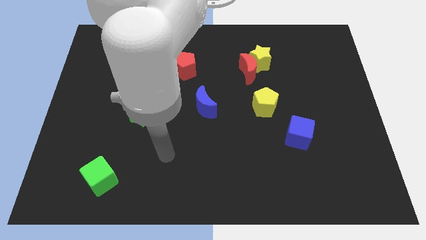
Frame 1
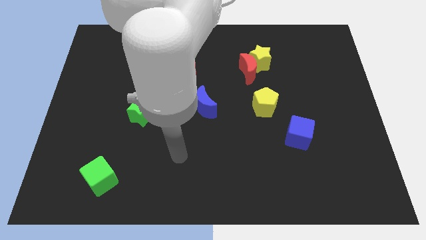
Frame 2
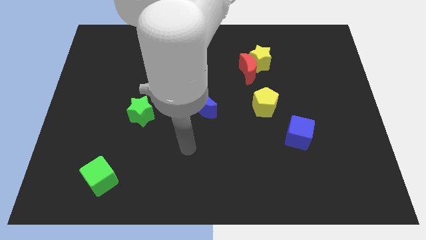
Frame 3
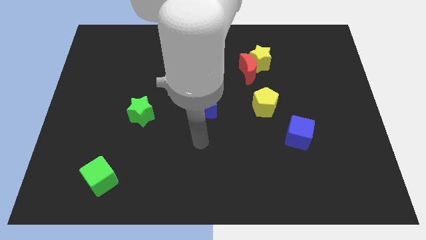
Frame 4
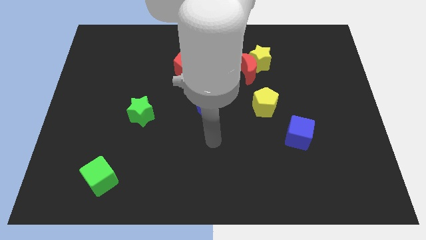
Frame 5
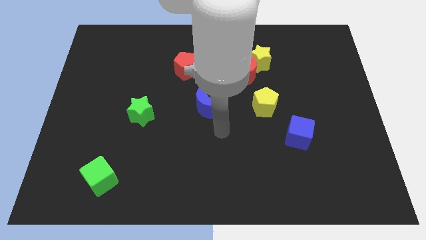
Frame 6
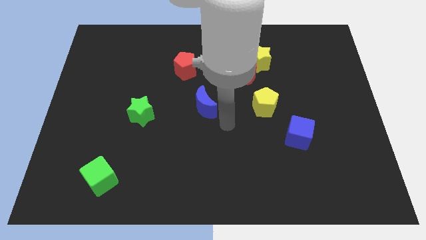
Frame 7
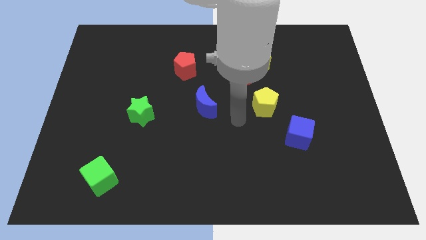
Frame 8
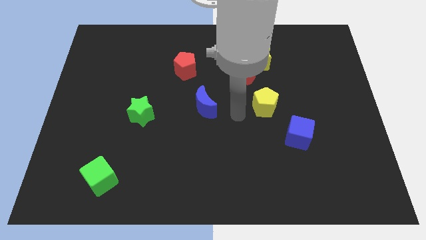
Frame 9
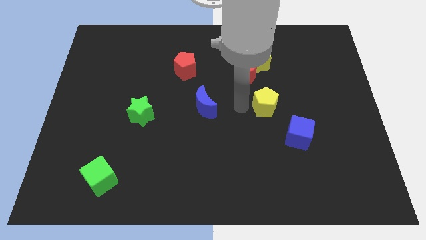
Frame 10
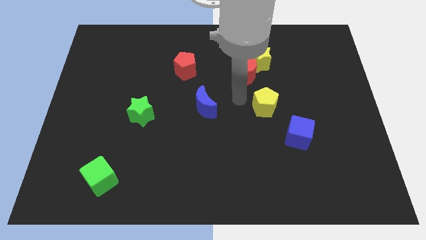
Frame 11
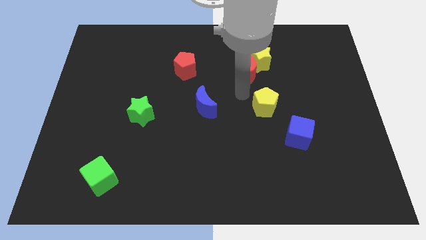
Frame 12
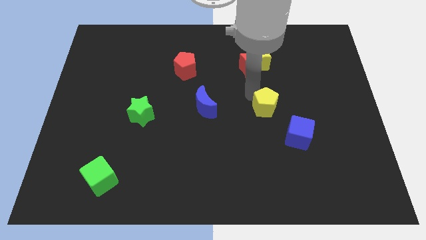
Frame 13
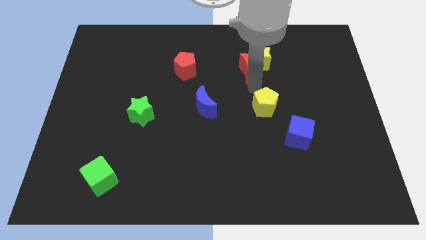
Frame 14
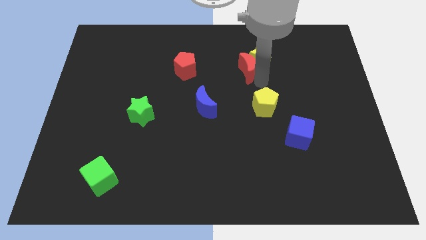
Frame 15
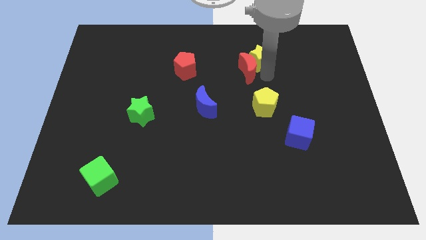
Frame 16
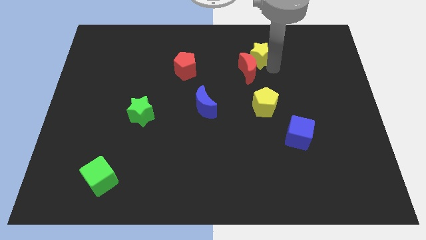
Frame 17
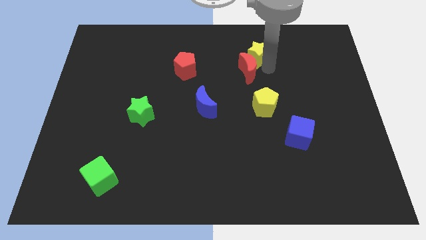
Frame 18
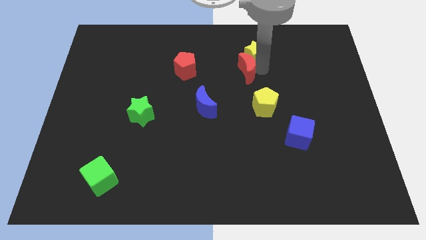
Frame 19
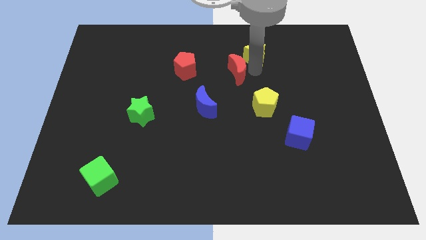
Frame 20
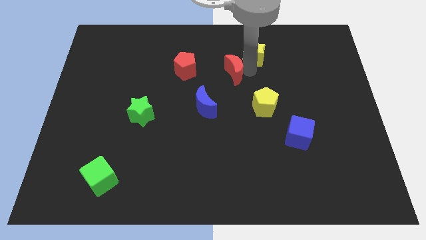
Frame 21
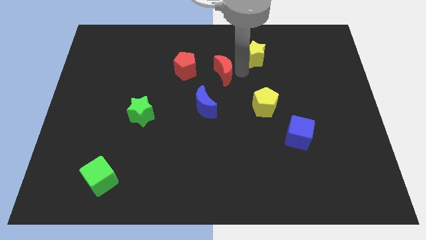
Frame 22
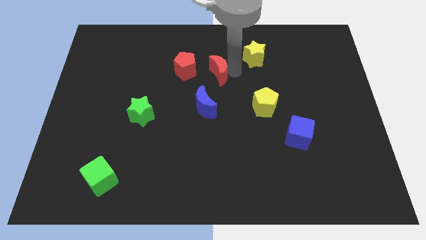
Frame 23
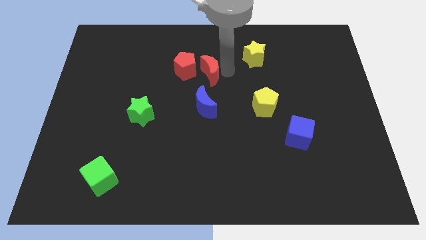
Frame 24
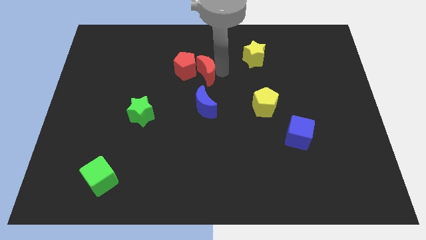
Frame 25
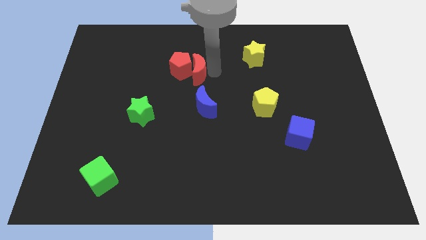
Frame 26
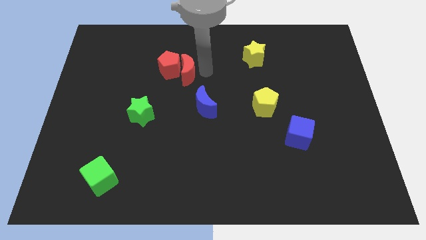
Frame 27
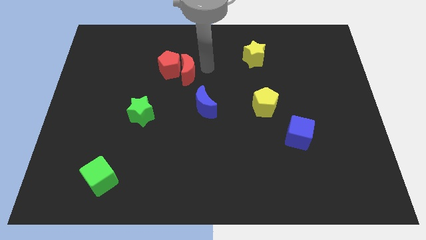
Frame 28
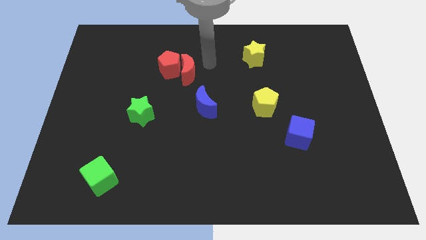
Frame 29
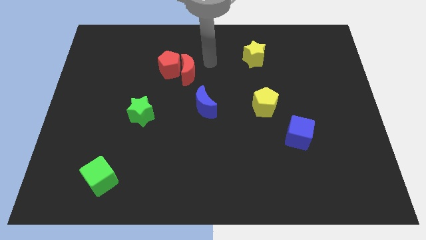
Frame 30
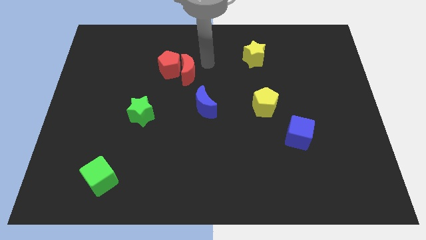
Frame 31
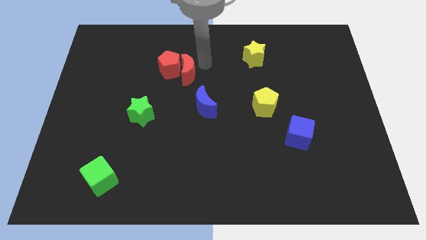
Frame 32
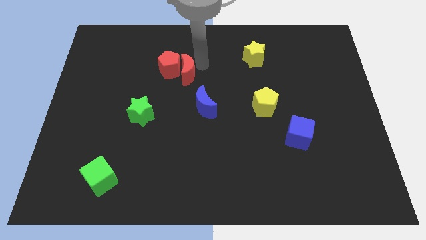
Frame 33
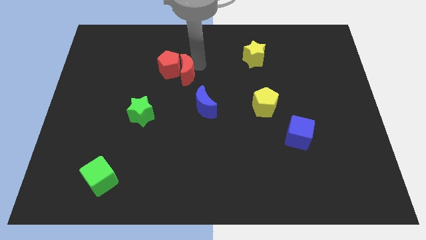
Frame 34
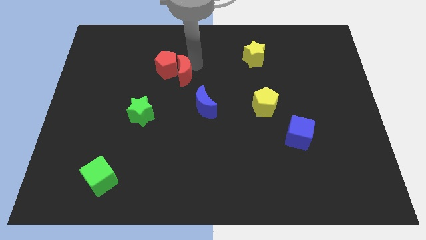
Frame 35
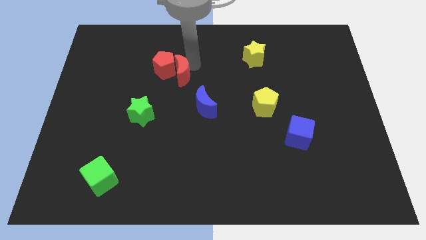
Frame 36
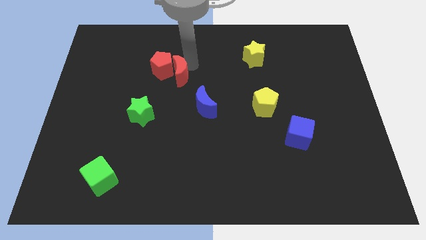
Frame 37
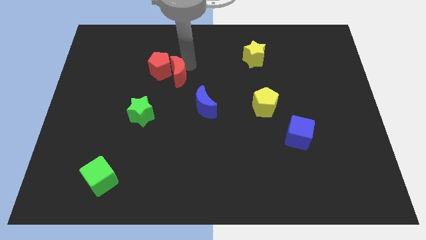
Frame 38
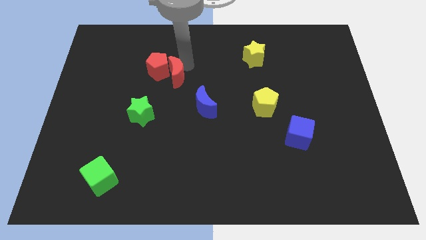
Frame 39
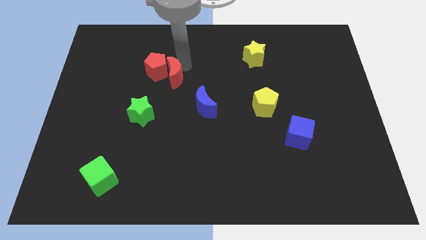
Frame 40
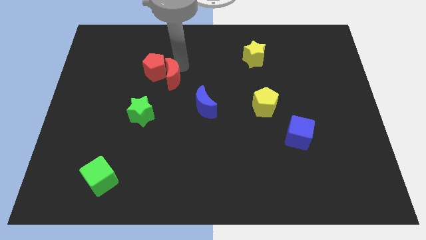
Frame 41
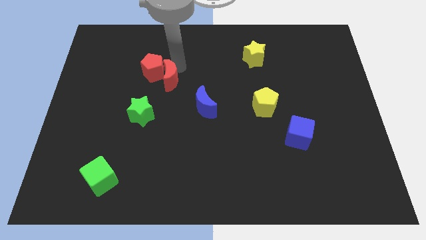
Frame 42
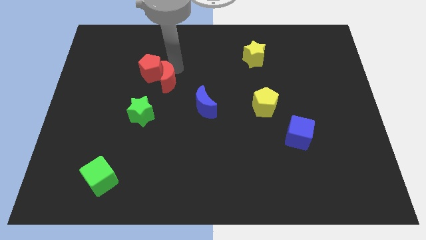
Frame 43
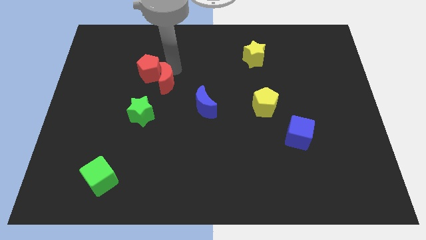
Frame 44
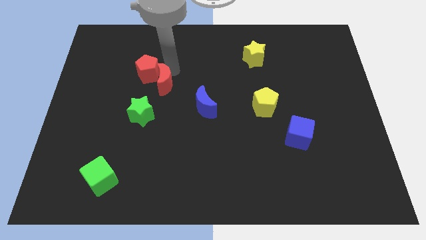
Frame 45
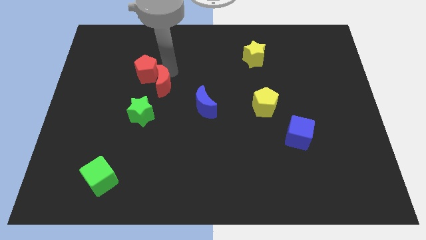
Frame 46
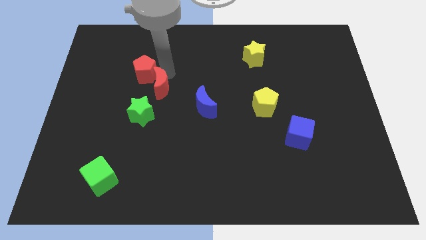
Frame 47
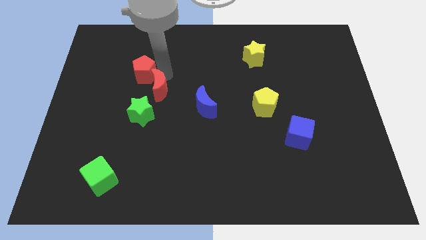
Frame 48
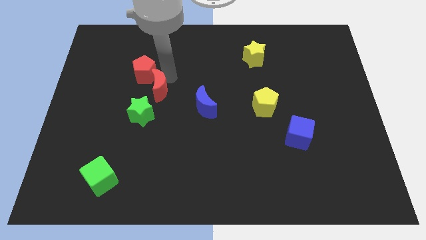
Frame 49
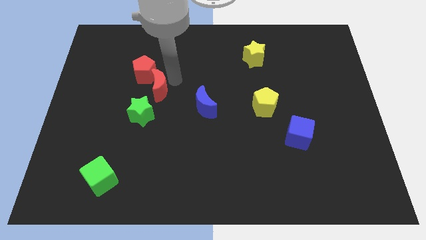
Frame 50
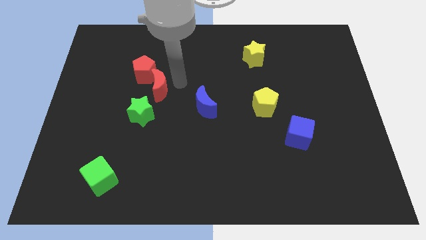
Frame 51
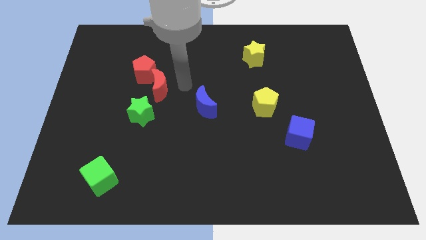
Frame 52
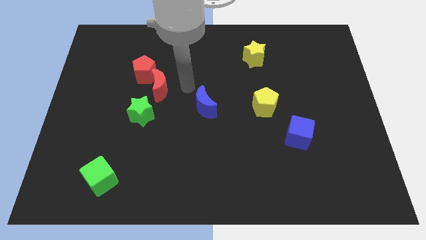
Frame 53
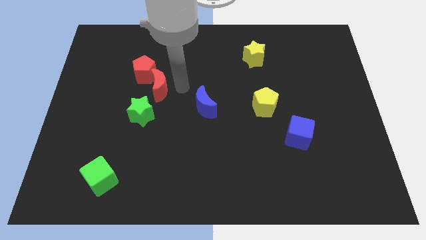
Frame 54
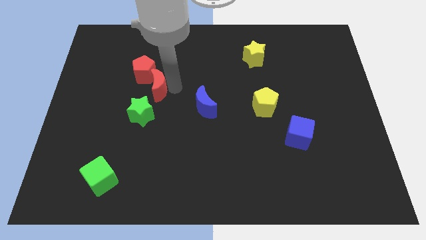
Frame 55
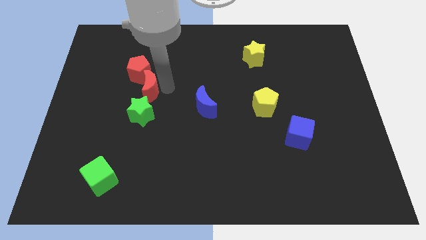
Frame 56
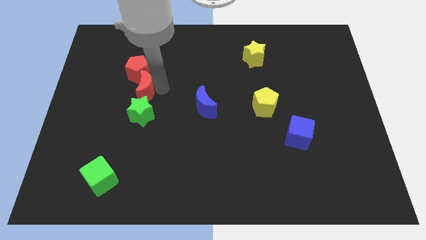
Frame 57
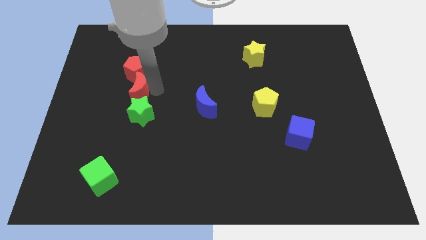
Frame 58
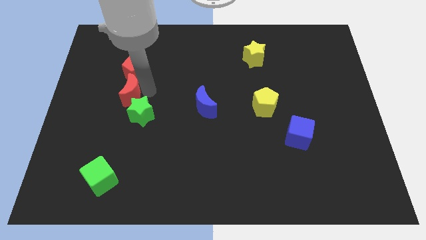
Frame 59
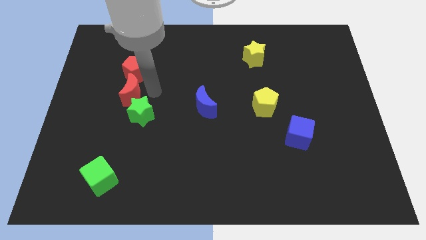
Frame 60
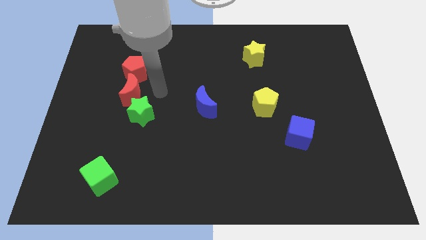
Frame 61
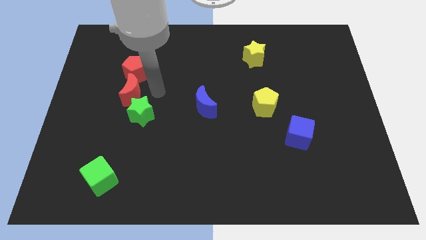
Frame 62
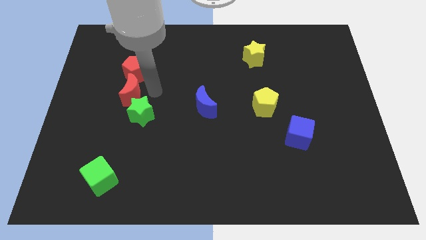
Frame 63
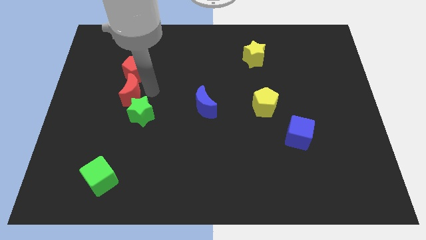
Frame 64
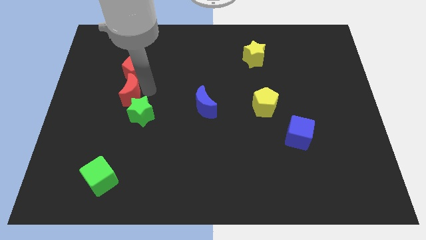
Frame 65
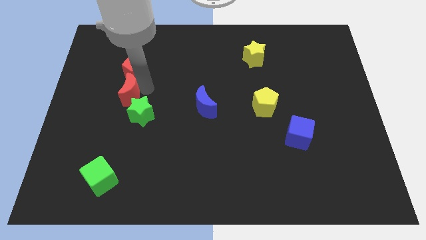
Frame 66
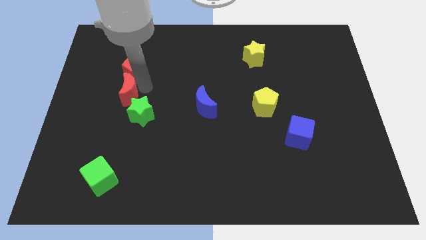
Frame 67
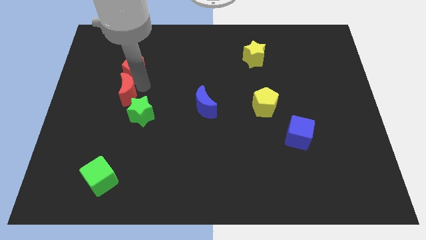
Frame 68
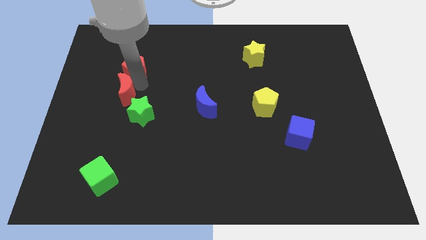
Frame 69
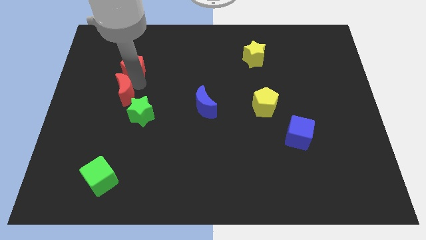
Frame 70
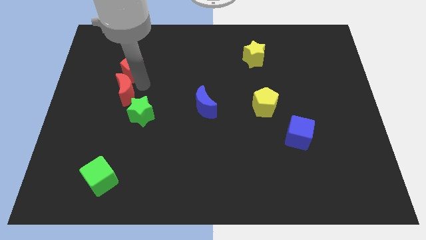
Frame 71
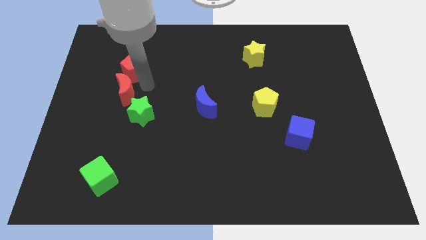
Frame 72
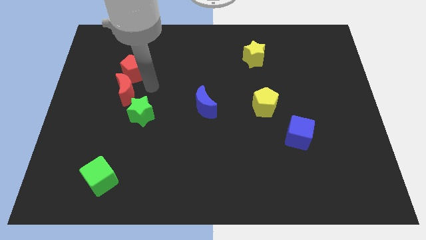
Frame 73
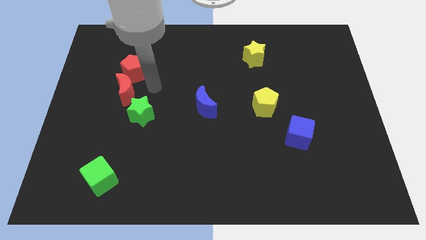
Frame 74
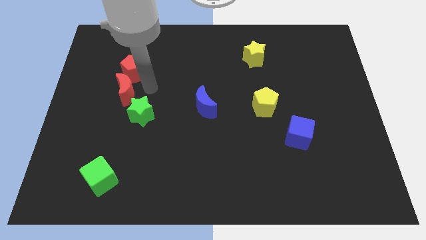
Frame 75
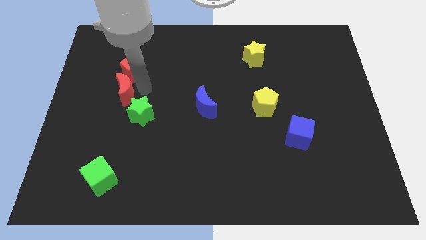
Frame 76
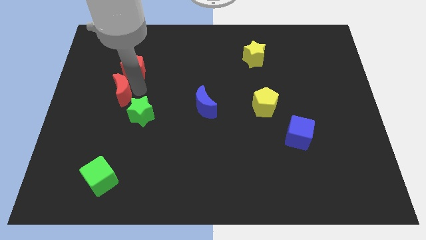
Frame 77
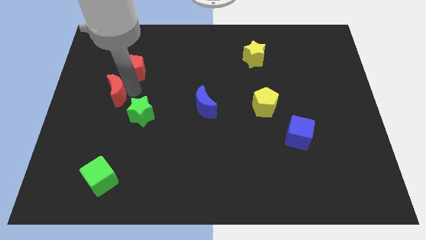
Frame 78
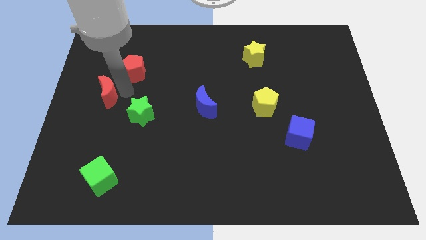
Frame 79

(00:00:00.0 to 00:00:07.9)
put the red moon to the left side
